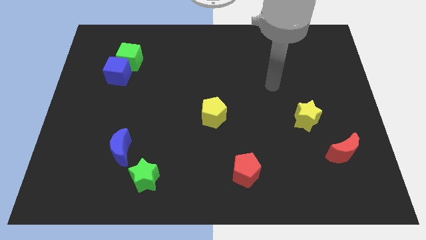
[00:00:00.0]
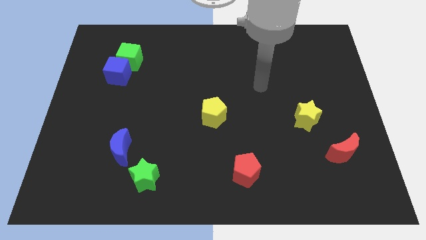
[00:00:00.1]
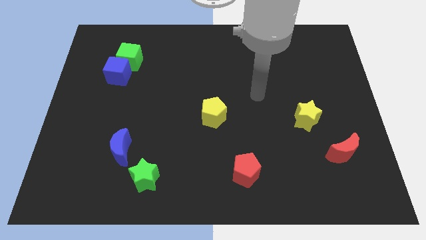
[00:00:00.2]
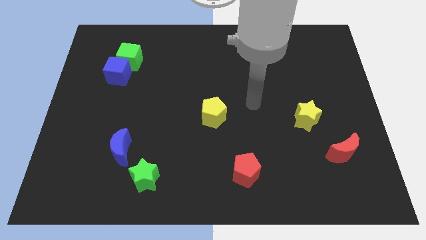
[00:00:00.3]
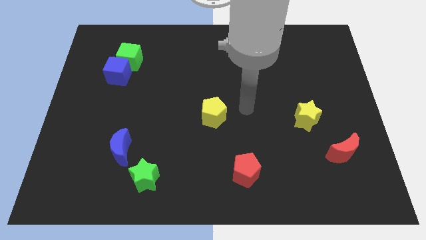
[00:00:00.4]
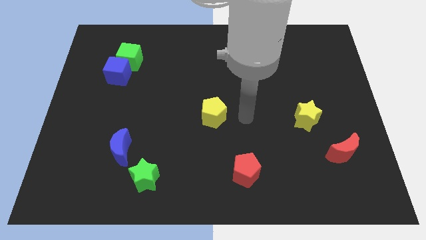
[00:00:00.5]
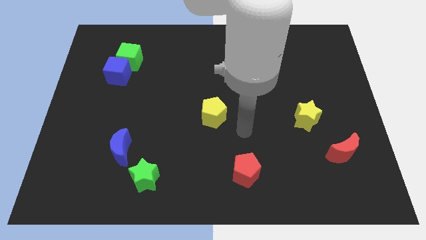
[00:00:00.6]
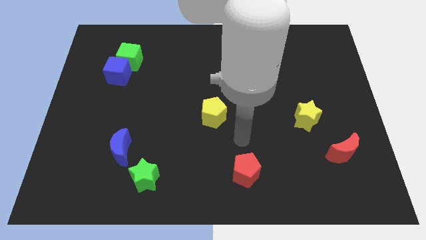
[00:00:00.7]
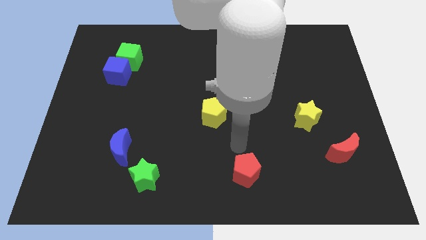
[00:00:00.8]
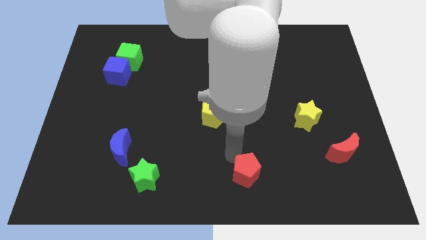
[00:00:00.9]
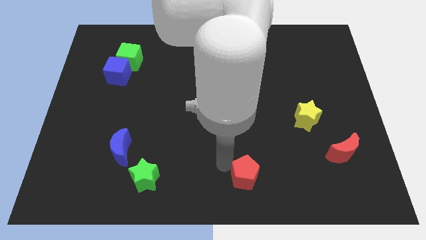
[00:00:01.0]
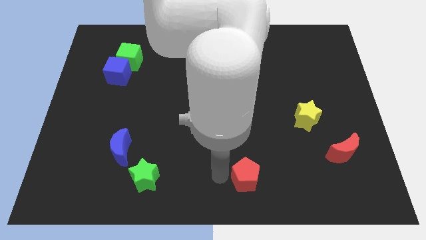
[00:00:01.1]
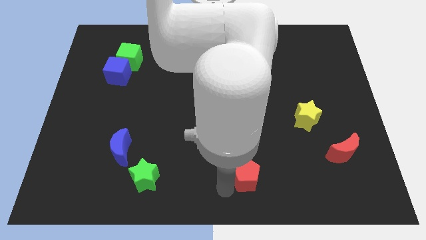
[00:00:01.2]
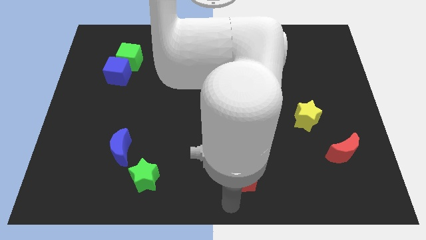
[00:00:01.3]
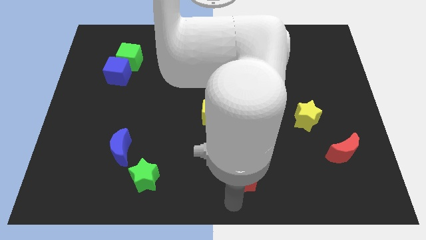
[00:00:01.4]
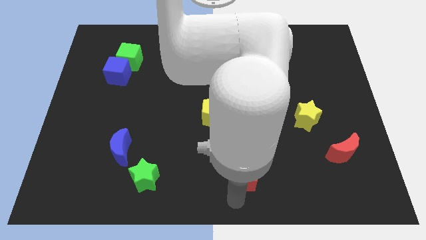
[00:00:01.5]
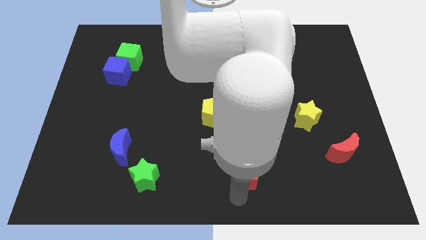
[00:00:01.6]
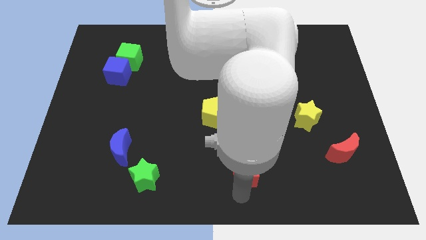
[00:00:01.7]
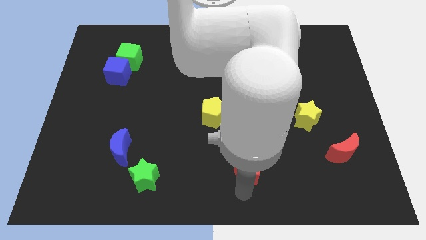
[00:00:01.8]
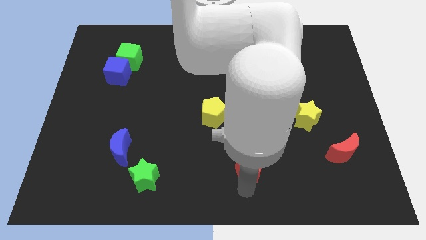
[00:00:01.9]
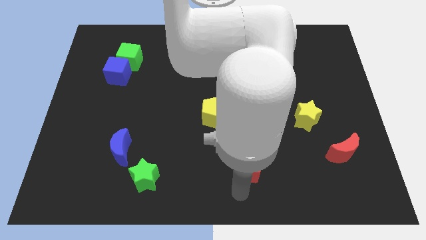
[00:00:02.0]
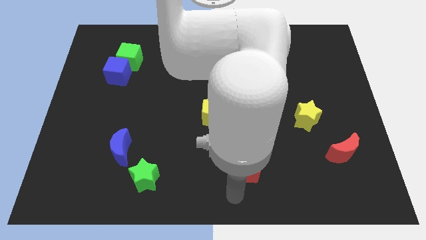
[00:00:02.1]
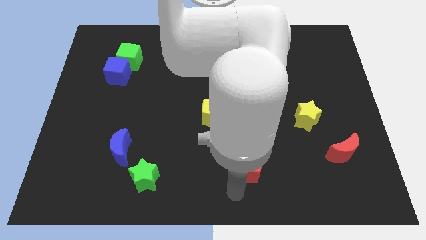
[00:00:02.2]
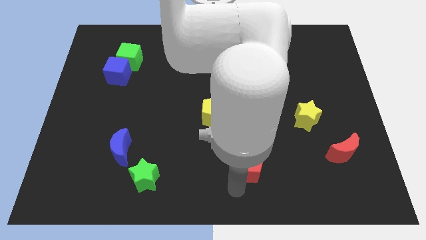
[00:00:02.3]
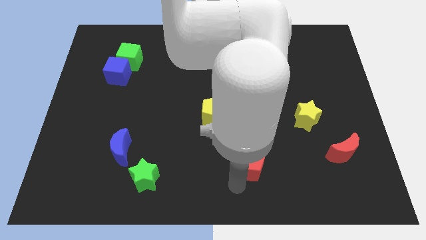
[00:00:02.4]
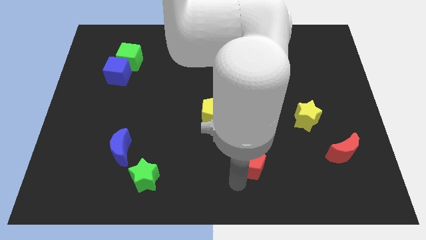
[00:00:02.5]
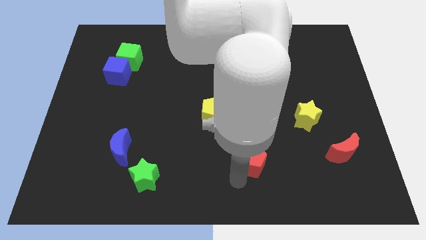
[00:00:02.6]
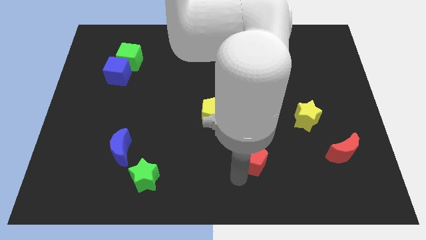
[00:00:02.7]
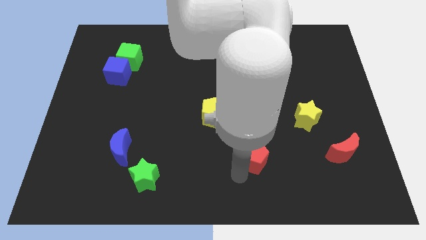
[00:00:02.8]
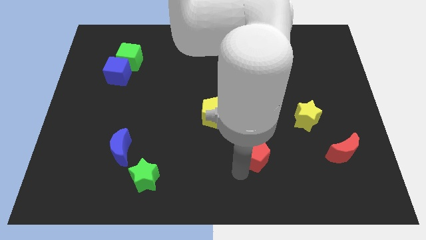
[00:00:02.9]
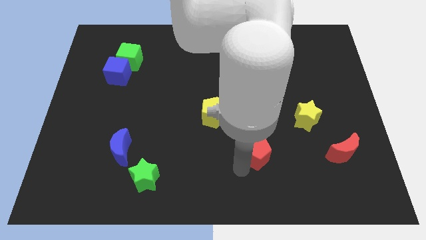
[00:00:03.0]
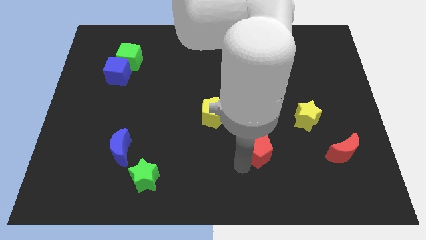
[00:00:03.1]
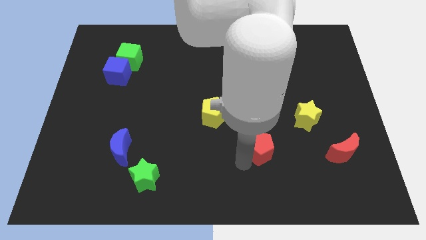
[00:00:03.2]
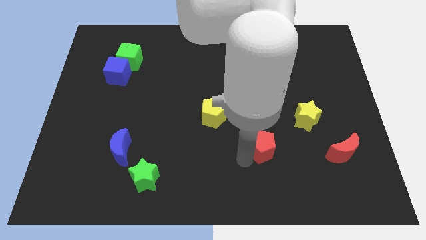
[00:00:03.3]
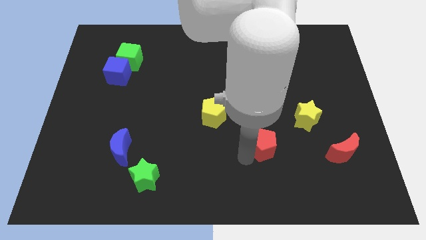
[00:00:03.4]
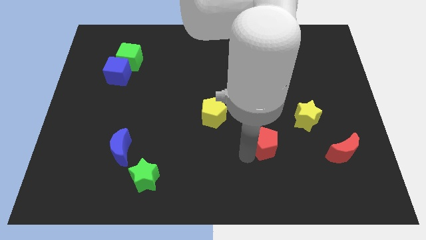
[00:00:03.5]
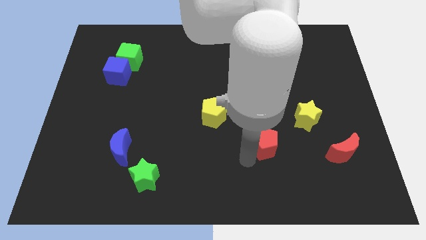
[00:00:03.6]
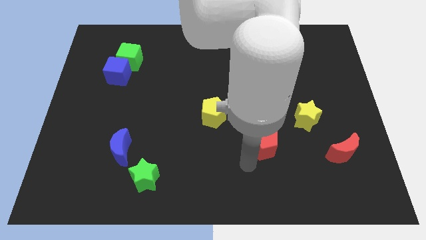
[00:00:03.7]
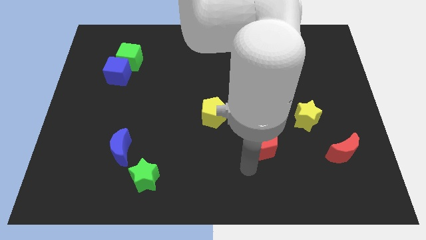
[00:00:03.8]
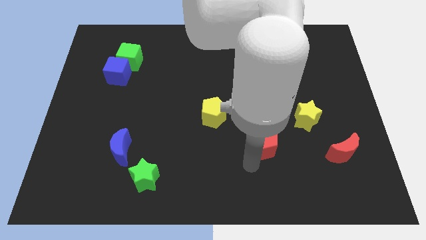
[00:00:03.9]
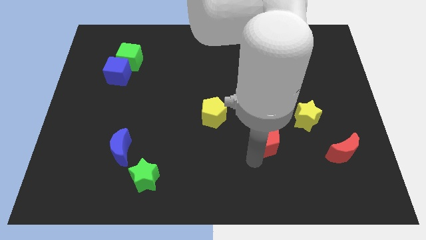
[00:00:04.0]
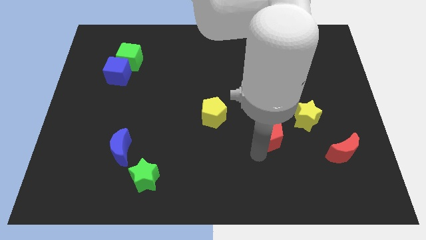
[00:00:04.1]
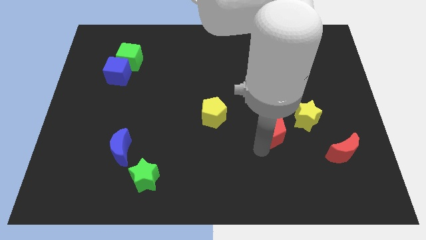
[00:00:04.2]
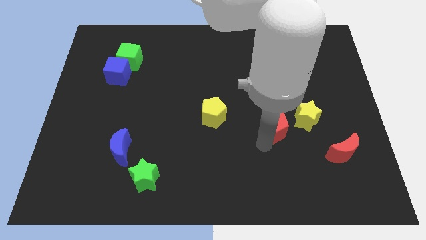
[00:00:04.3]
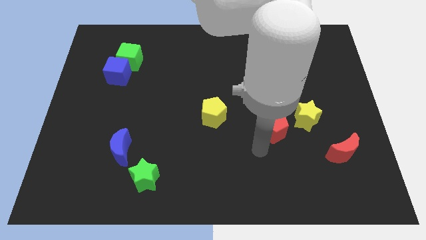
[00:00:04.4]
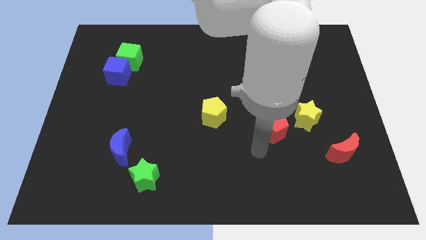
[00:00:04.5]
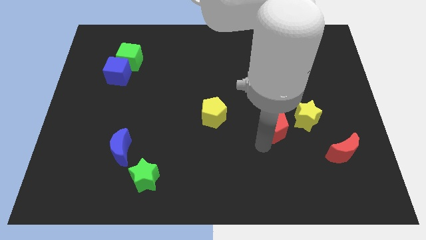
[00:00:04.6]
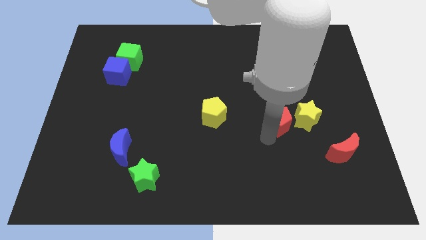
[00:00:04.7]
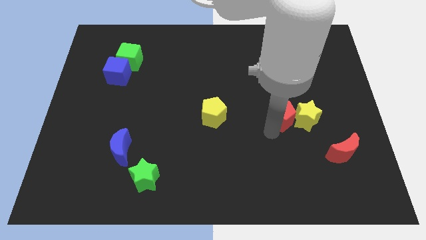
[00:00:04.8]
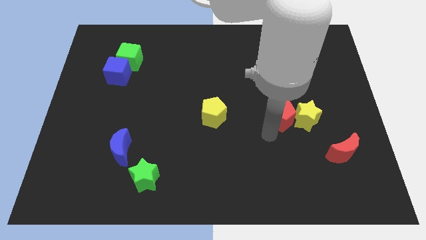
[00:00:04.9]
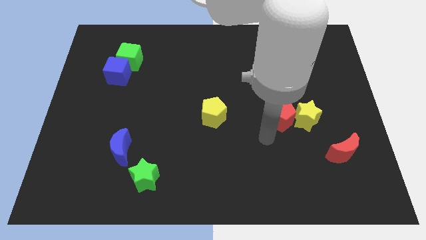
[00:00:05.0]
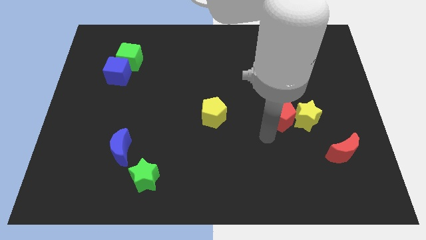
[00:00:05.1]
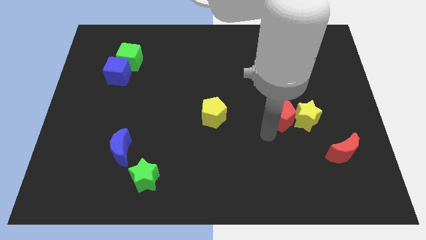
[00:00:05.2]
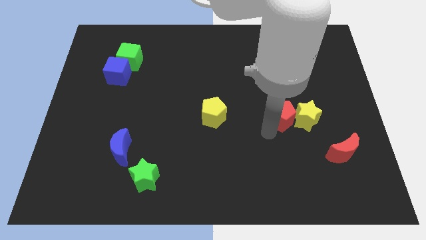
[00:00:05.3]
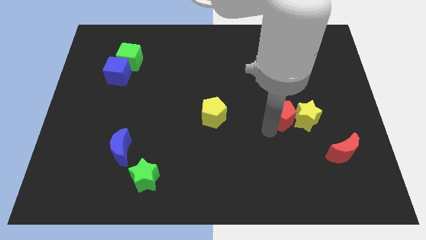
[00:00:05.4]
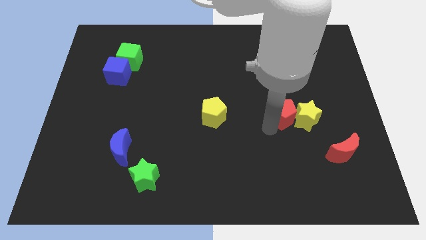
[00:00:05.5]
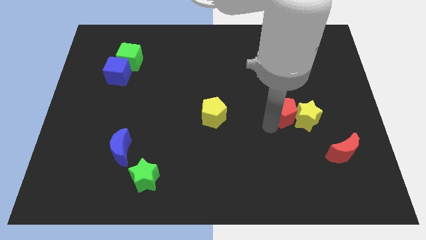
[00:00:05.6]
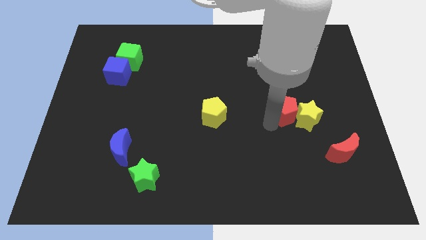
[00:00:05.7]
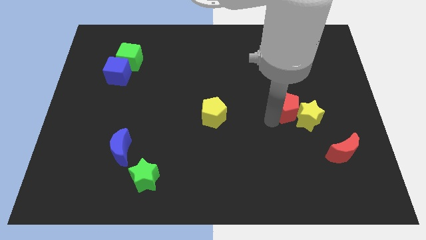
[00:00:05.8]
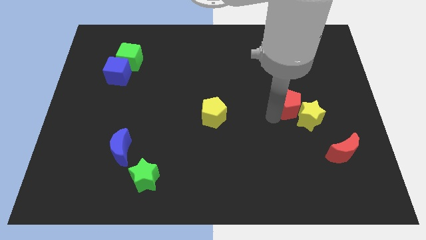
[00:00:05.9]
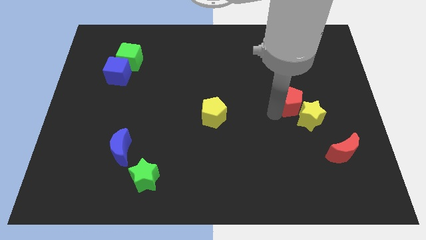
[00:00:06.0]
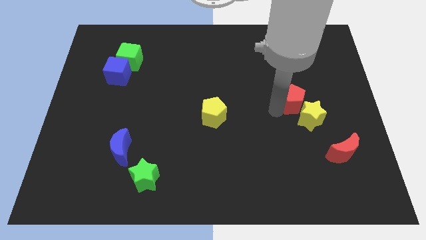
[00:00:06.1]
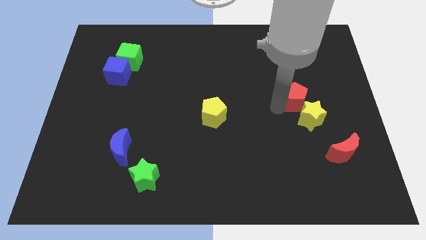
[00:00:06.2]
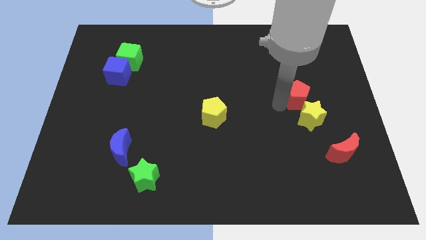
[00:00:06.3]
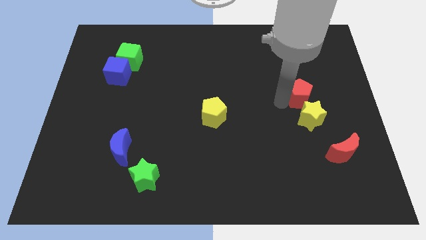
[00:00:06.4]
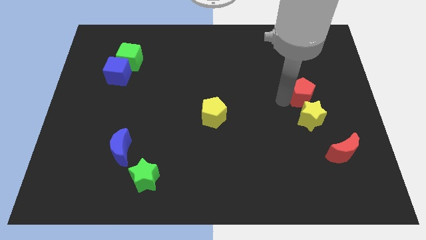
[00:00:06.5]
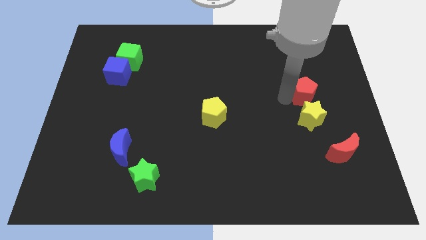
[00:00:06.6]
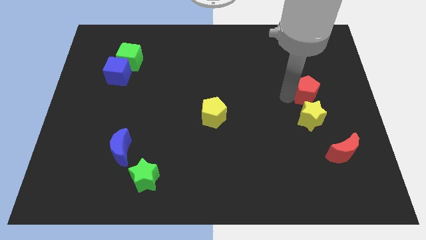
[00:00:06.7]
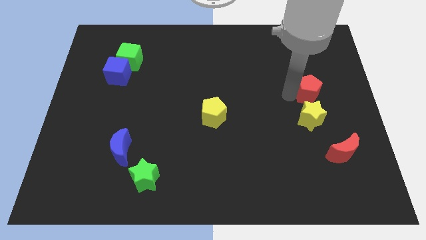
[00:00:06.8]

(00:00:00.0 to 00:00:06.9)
put the red pentagon to the top right of the yellow star
